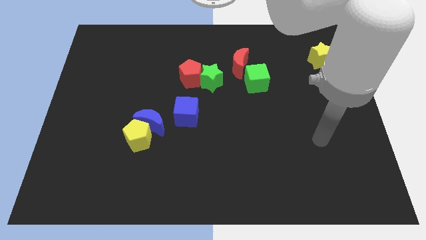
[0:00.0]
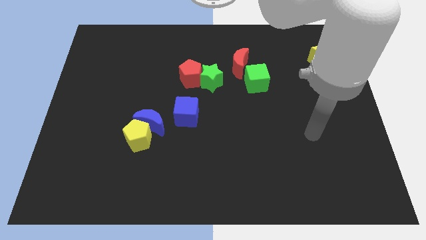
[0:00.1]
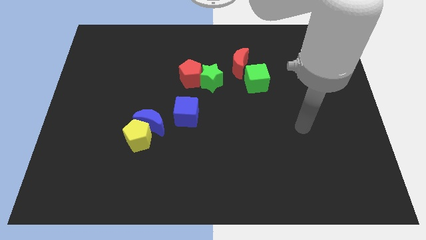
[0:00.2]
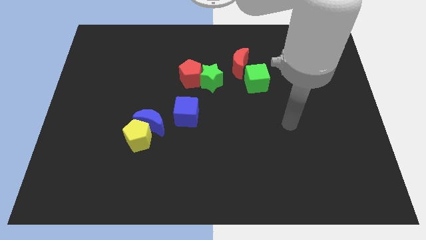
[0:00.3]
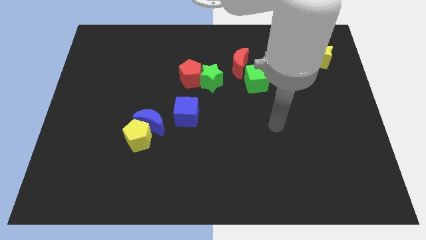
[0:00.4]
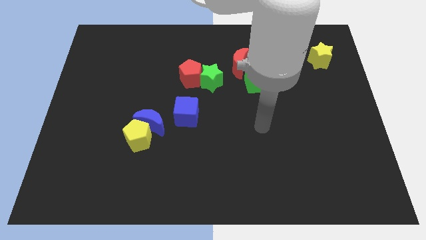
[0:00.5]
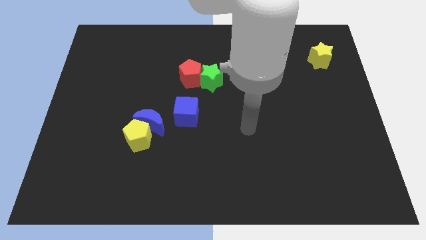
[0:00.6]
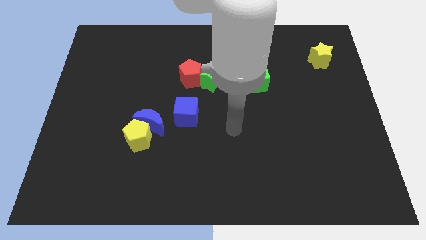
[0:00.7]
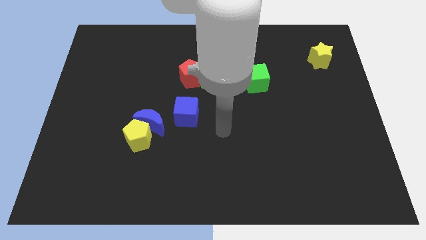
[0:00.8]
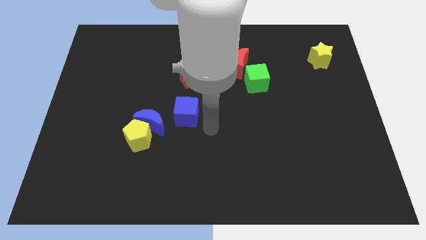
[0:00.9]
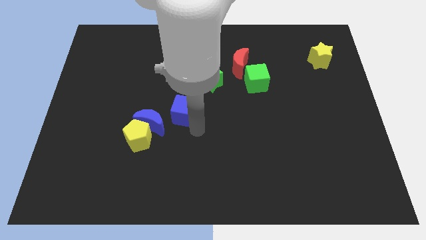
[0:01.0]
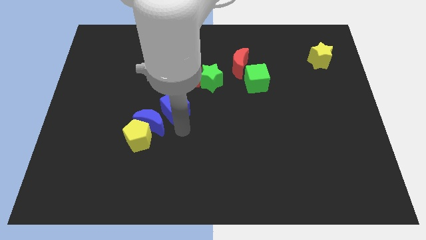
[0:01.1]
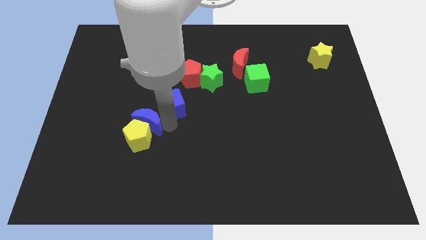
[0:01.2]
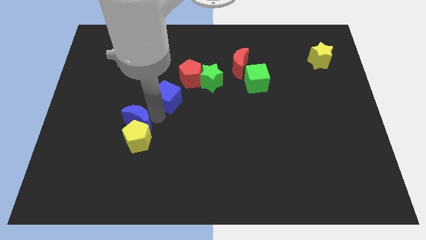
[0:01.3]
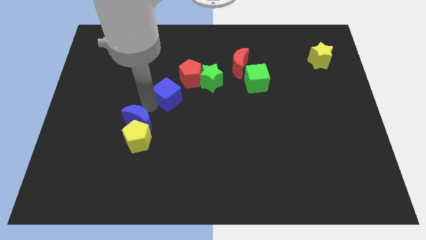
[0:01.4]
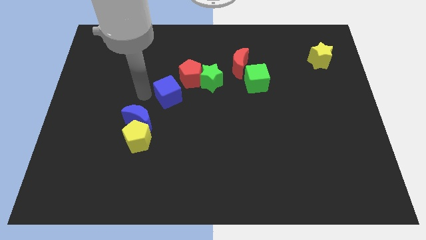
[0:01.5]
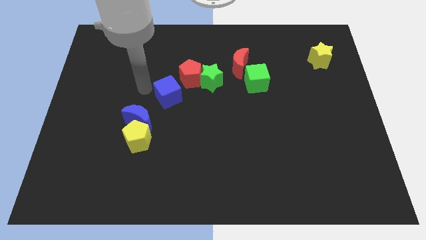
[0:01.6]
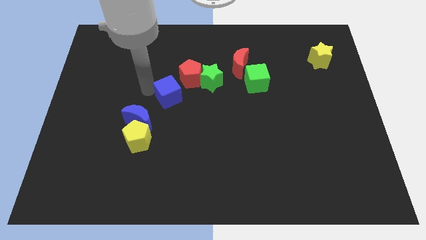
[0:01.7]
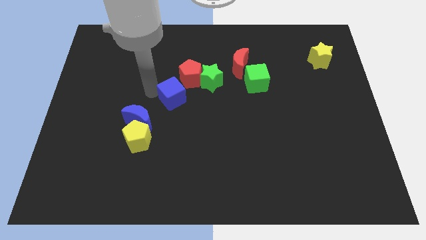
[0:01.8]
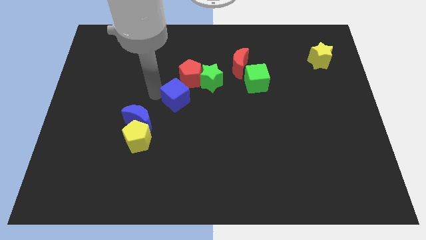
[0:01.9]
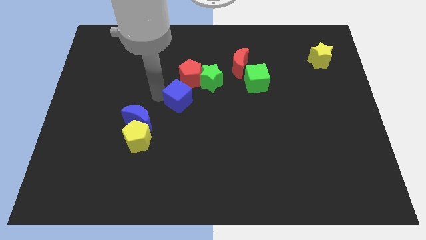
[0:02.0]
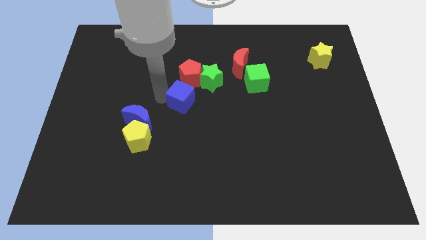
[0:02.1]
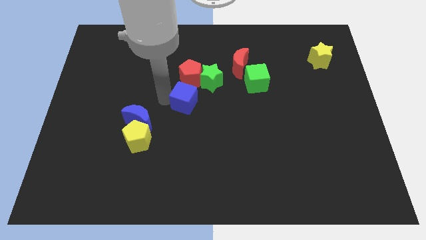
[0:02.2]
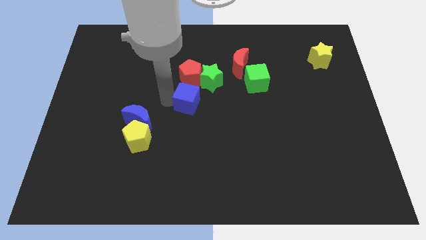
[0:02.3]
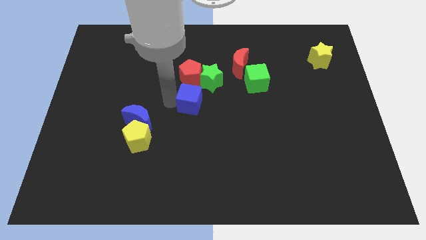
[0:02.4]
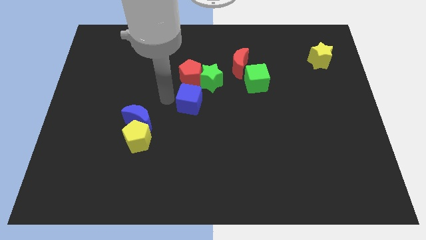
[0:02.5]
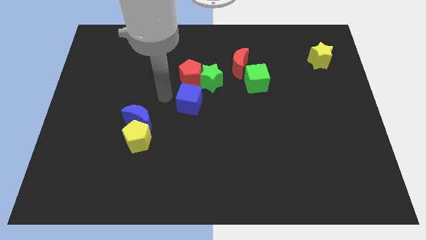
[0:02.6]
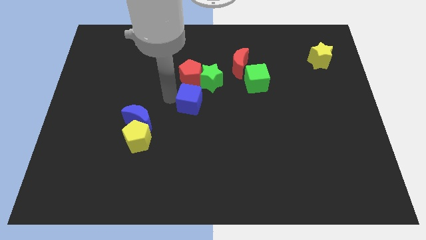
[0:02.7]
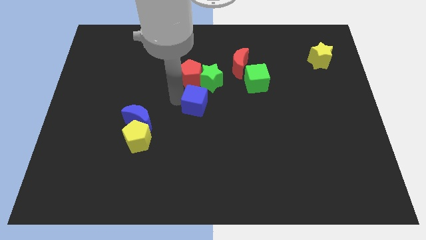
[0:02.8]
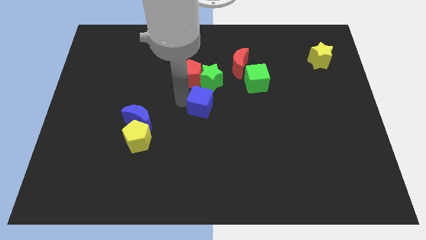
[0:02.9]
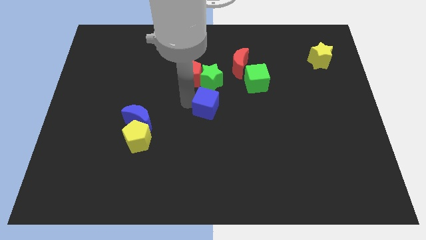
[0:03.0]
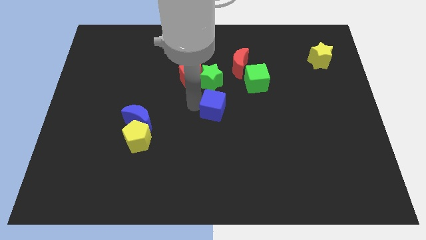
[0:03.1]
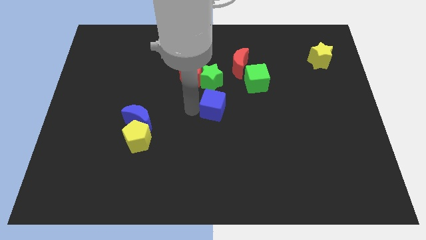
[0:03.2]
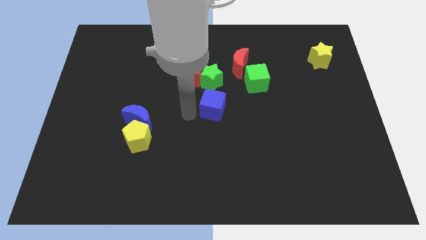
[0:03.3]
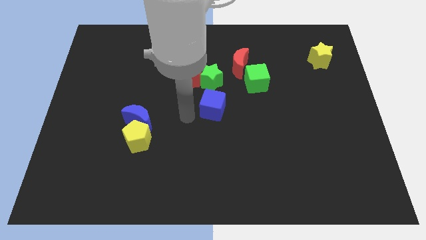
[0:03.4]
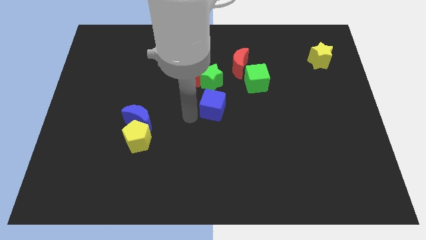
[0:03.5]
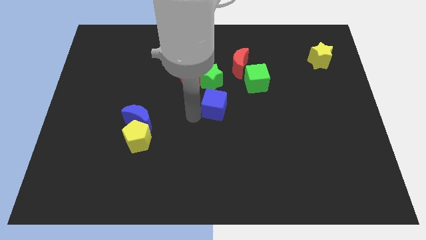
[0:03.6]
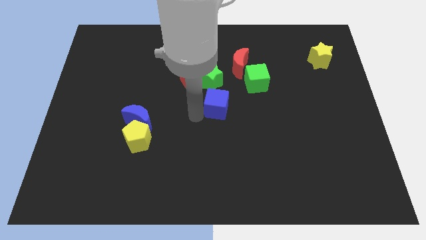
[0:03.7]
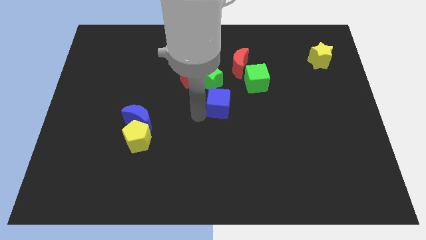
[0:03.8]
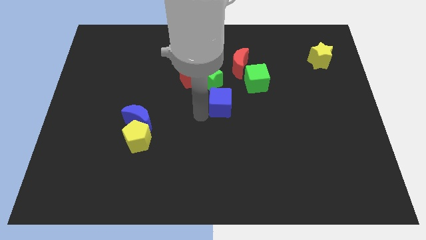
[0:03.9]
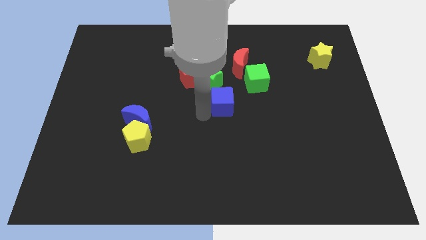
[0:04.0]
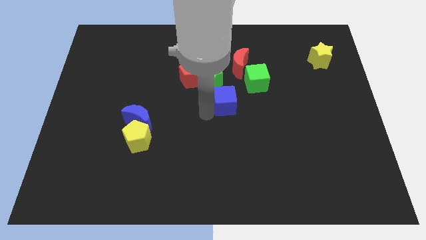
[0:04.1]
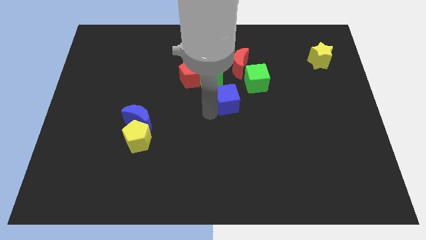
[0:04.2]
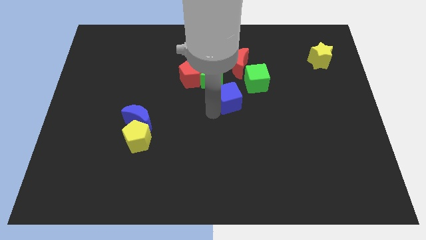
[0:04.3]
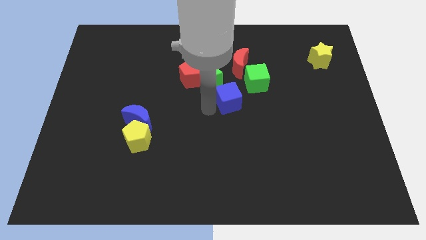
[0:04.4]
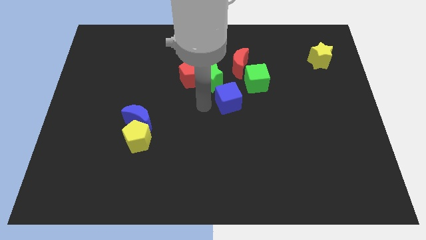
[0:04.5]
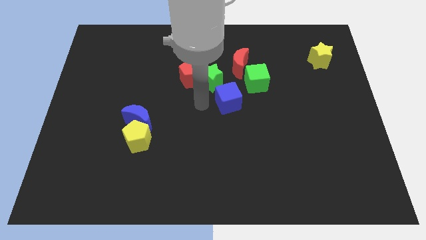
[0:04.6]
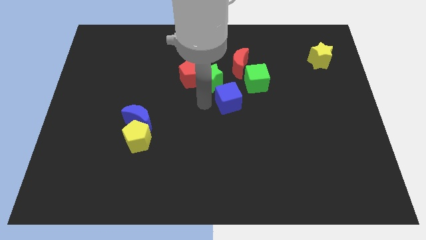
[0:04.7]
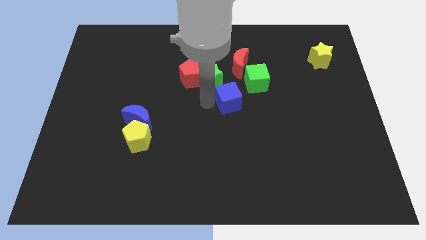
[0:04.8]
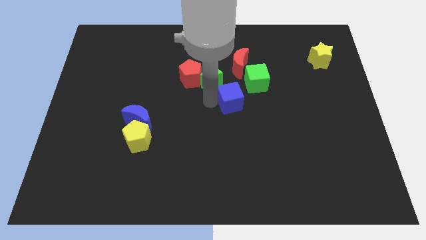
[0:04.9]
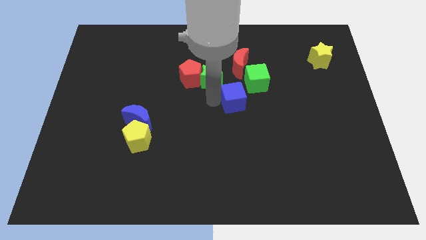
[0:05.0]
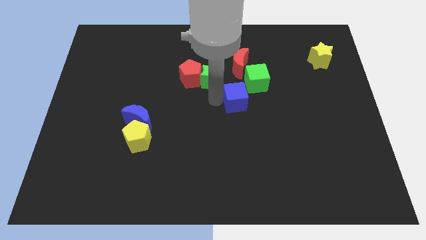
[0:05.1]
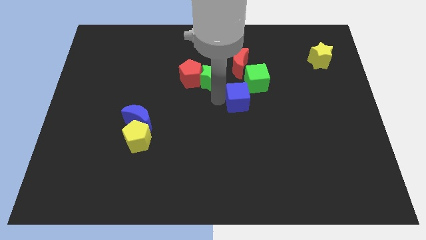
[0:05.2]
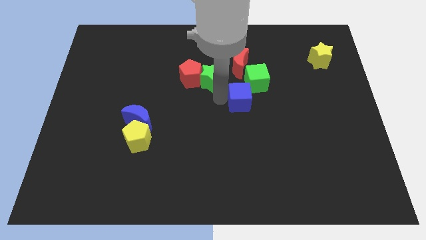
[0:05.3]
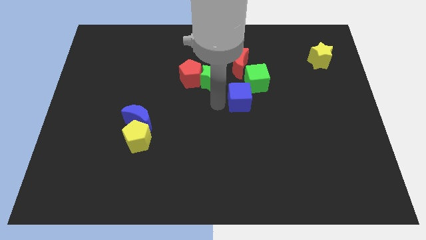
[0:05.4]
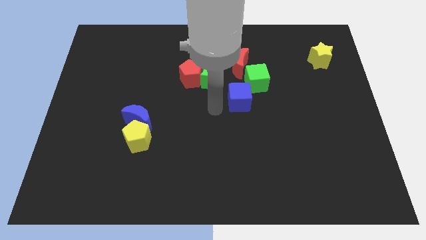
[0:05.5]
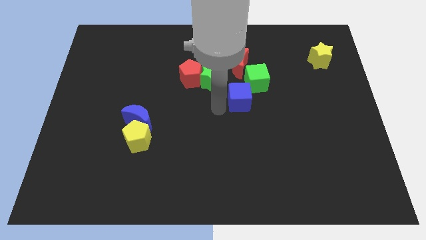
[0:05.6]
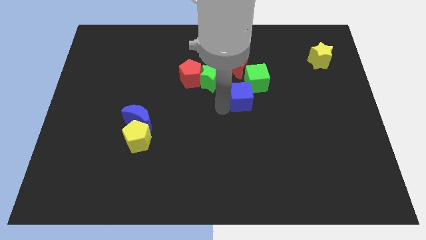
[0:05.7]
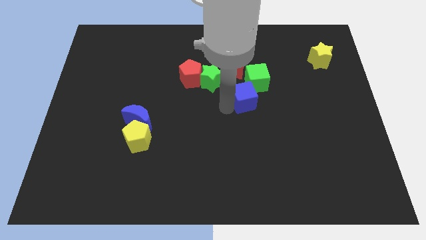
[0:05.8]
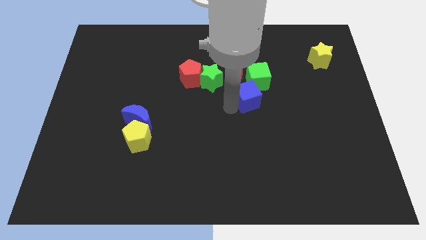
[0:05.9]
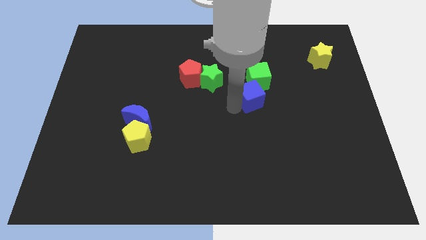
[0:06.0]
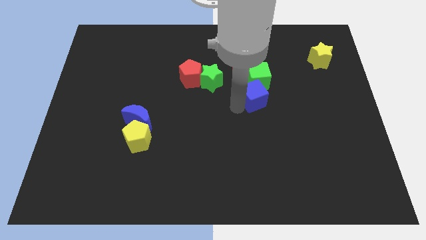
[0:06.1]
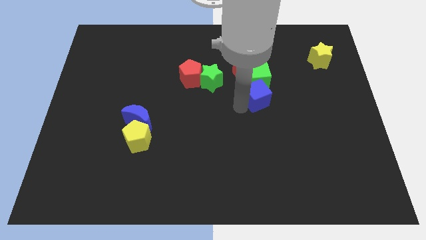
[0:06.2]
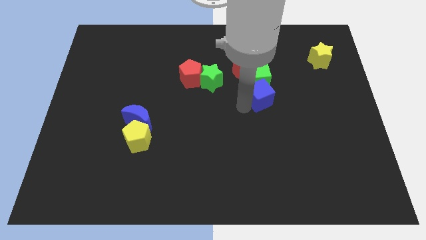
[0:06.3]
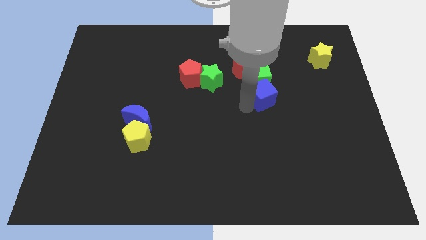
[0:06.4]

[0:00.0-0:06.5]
move the blue cube to the bottom right side of the red moon

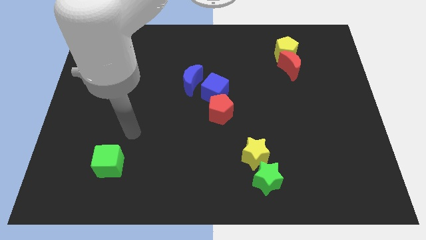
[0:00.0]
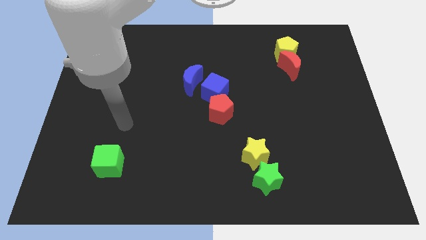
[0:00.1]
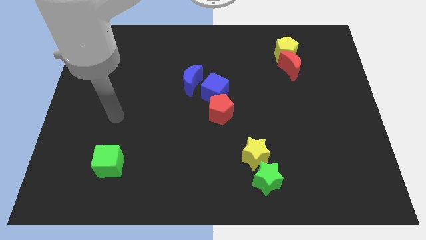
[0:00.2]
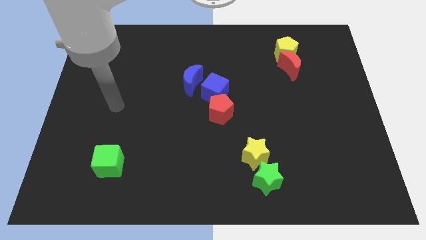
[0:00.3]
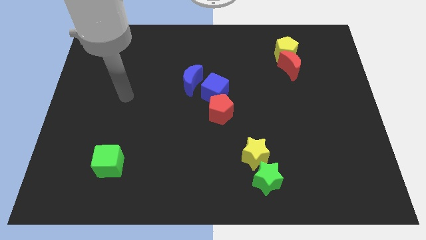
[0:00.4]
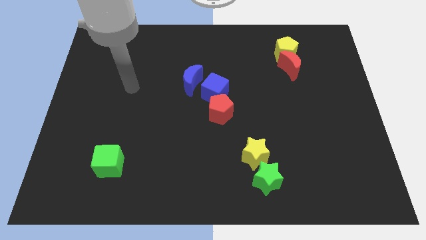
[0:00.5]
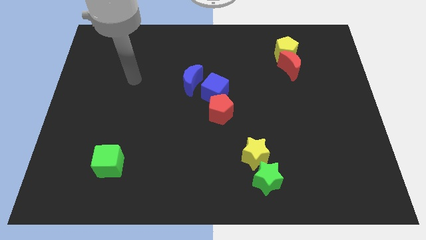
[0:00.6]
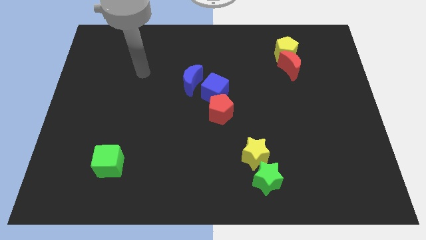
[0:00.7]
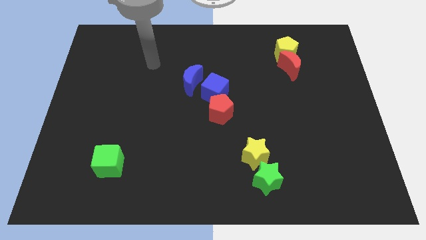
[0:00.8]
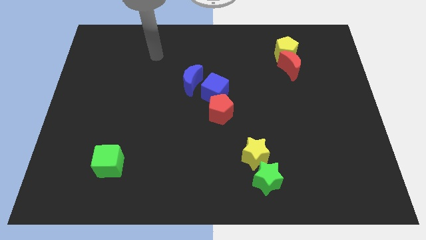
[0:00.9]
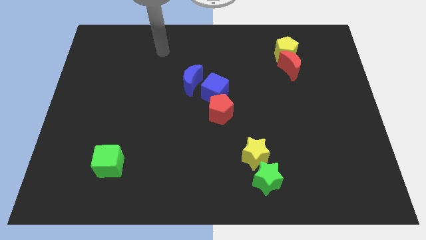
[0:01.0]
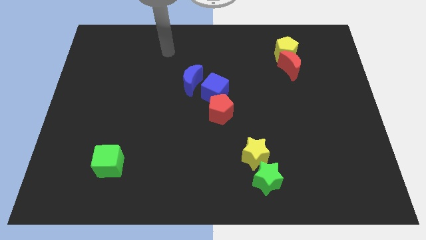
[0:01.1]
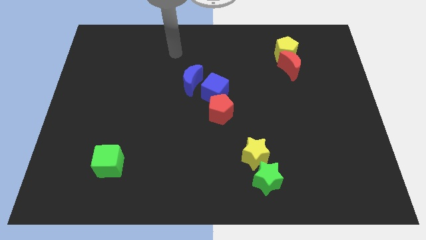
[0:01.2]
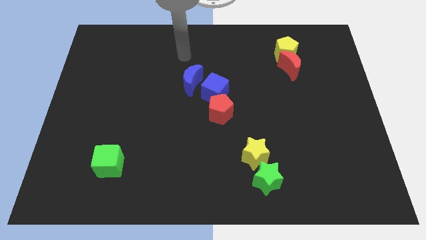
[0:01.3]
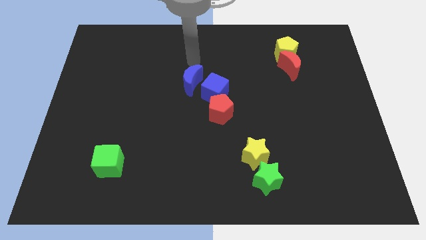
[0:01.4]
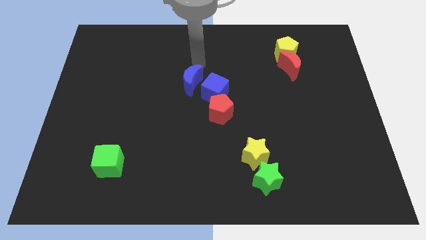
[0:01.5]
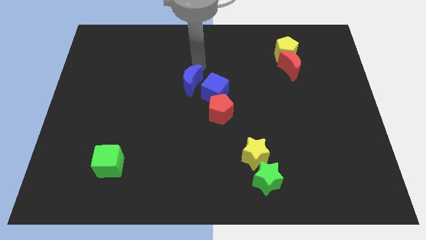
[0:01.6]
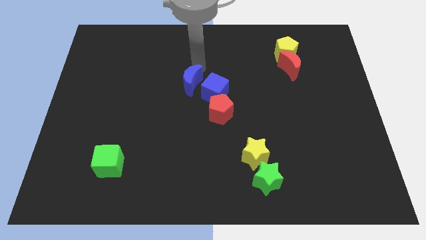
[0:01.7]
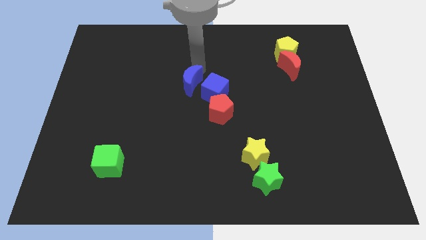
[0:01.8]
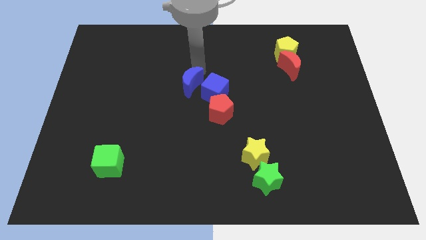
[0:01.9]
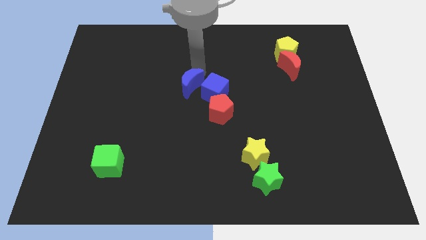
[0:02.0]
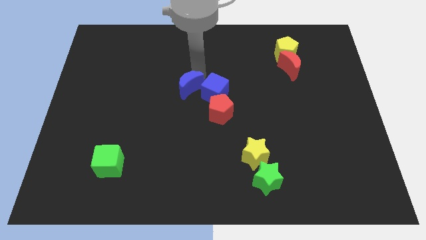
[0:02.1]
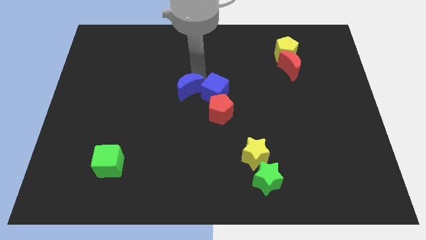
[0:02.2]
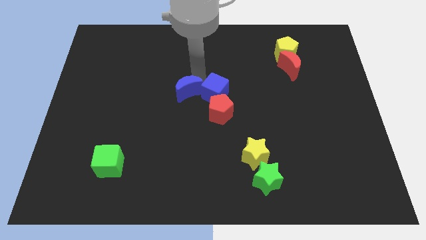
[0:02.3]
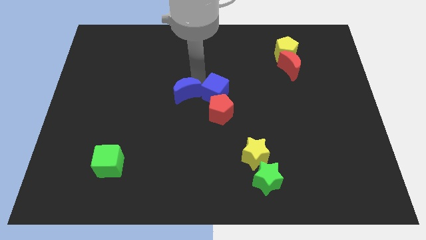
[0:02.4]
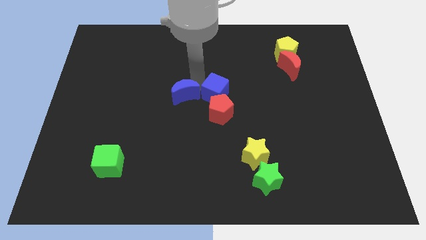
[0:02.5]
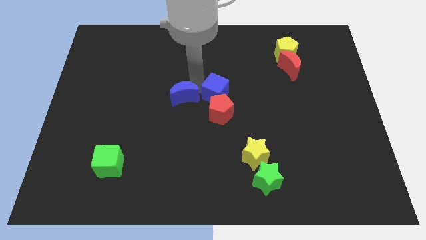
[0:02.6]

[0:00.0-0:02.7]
put the blue moon to the left side of the red pentagon
